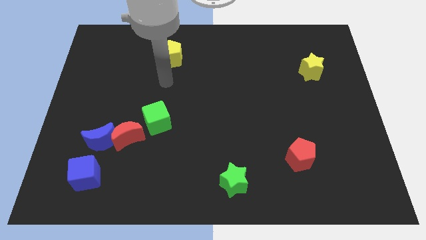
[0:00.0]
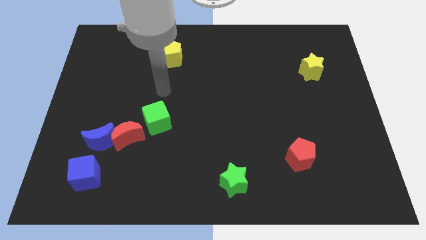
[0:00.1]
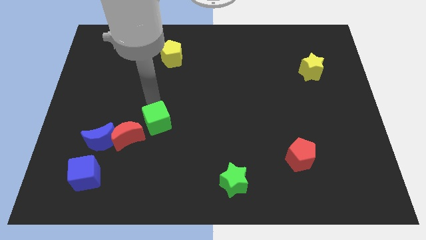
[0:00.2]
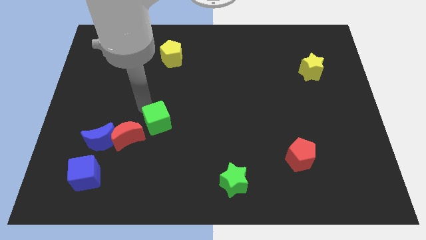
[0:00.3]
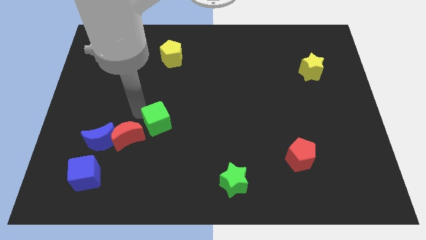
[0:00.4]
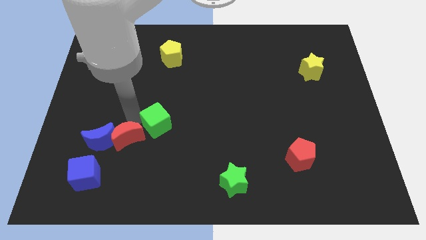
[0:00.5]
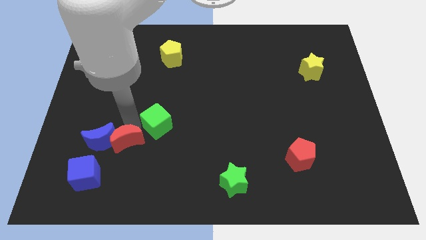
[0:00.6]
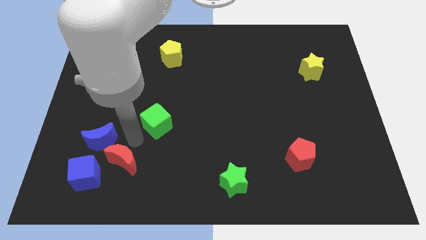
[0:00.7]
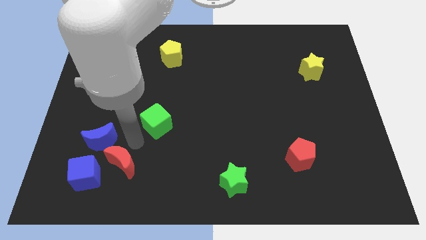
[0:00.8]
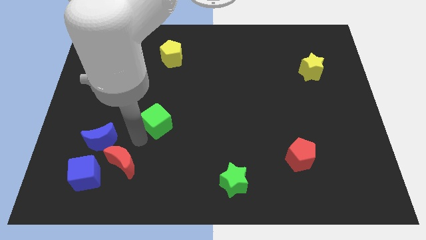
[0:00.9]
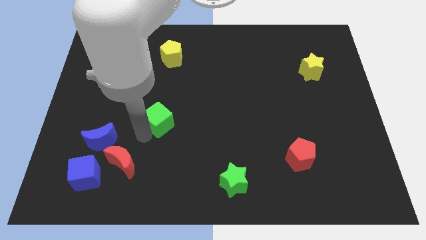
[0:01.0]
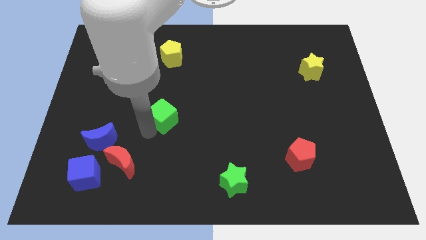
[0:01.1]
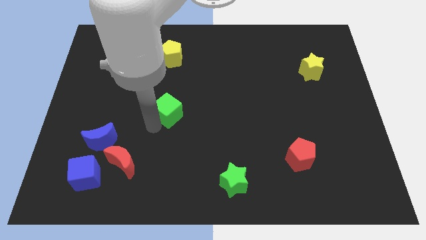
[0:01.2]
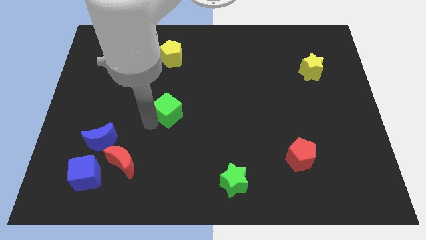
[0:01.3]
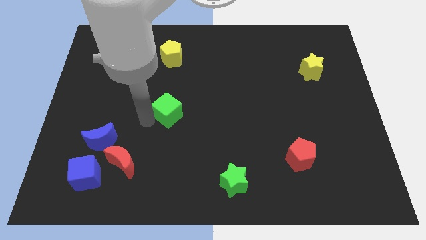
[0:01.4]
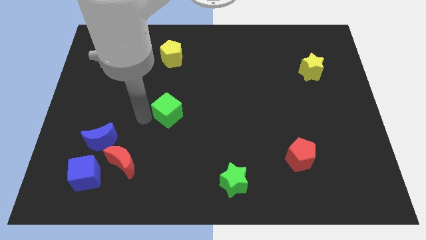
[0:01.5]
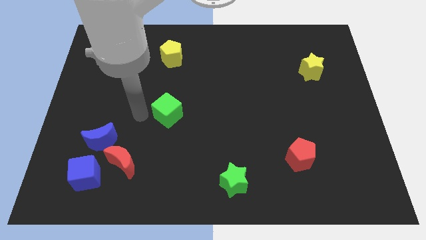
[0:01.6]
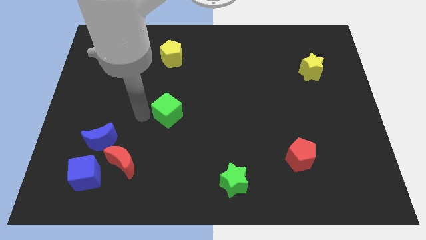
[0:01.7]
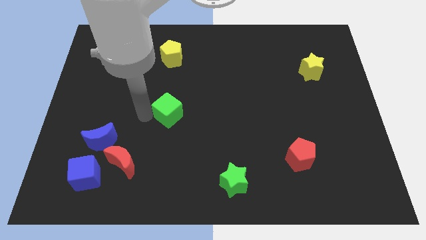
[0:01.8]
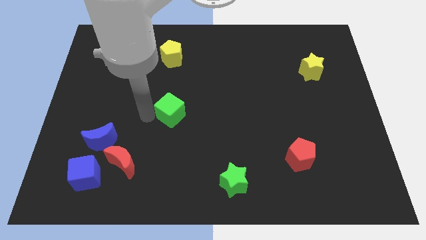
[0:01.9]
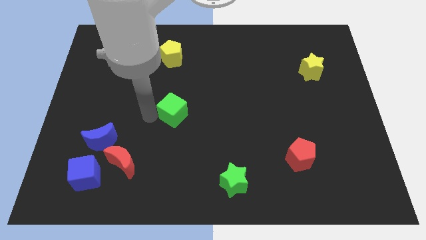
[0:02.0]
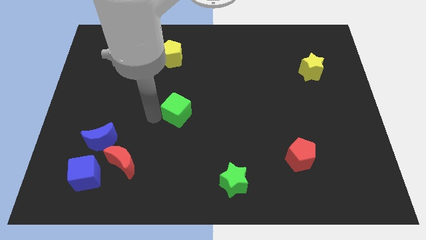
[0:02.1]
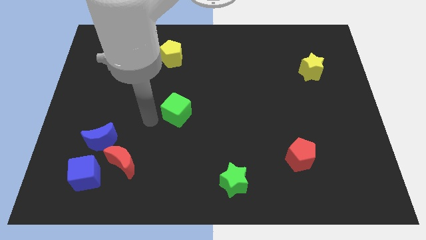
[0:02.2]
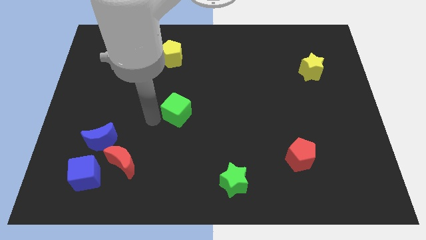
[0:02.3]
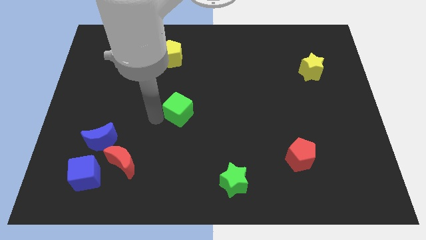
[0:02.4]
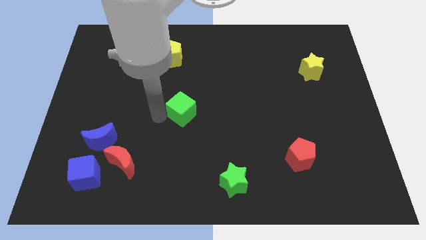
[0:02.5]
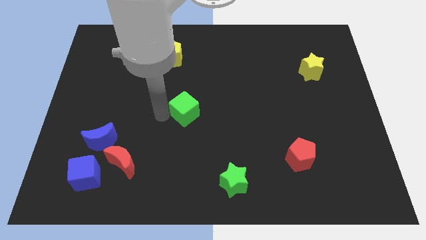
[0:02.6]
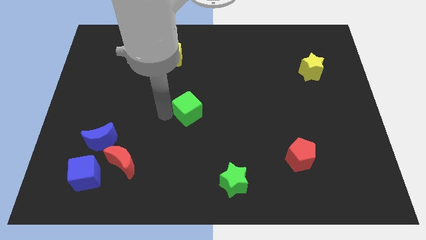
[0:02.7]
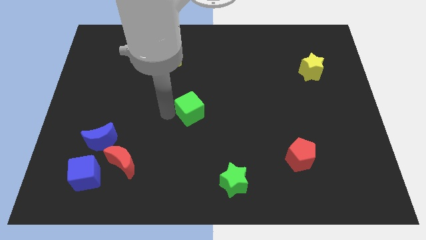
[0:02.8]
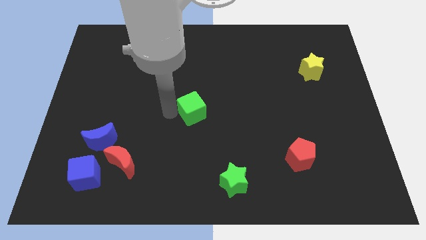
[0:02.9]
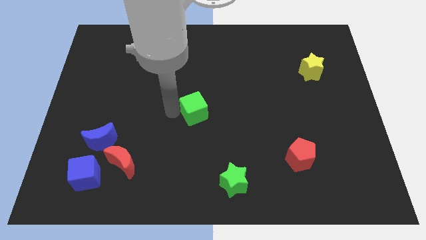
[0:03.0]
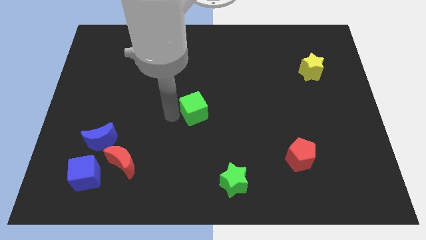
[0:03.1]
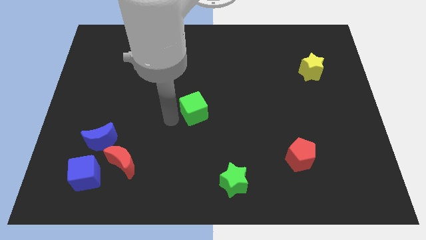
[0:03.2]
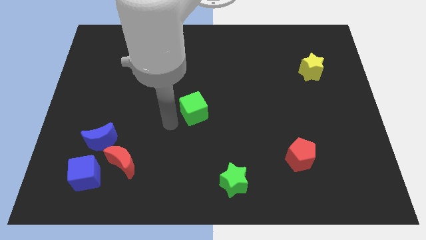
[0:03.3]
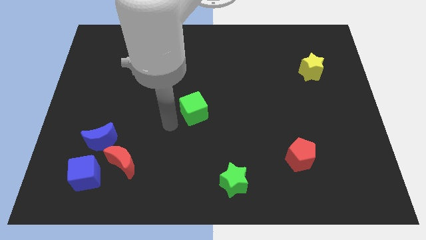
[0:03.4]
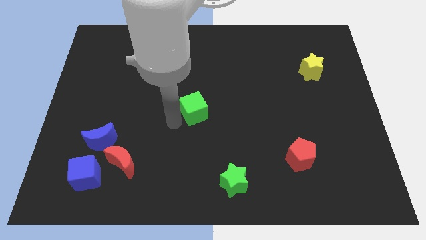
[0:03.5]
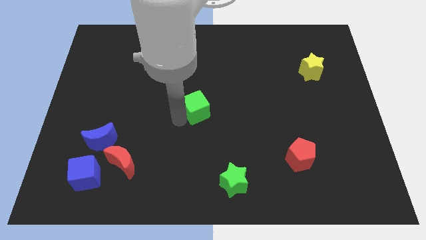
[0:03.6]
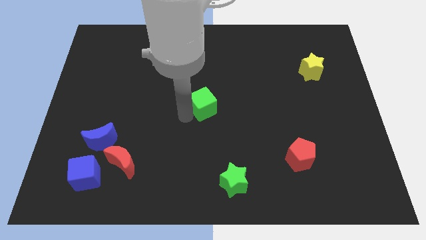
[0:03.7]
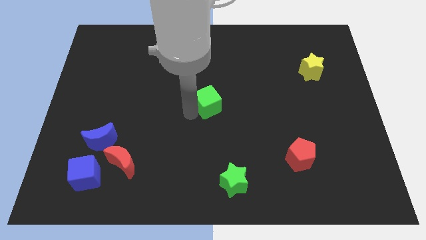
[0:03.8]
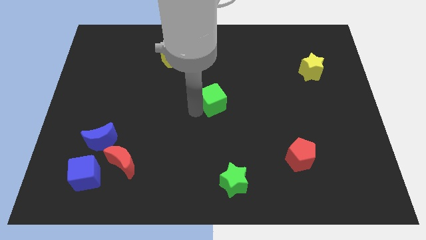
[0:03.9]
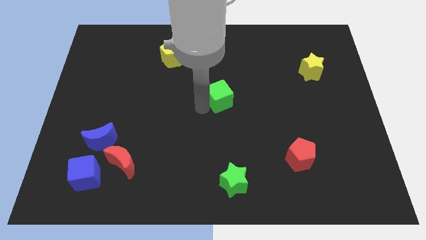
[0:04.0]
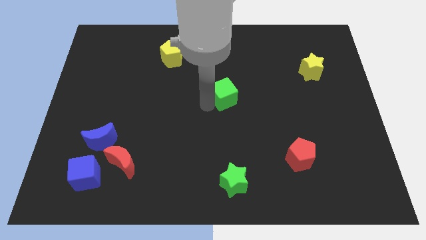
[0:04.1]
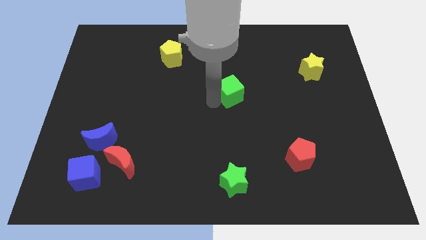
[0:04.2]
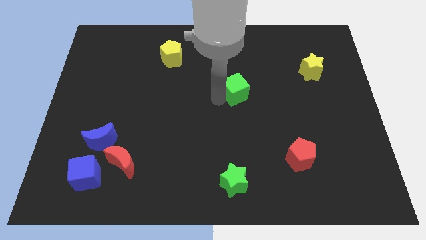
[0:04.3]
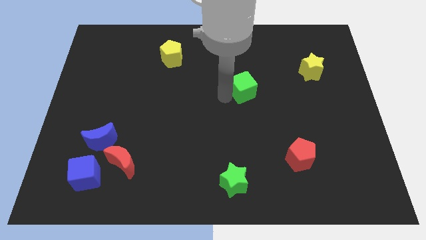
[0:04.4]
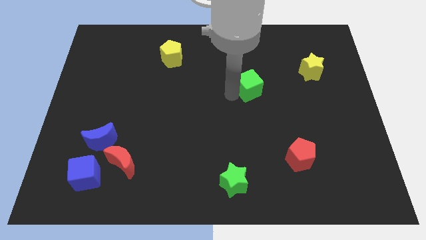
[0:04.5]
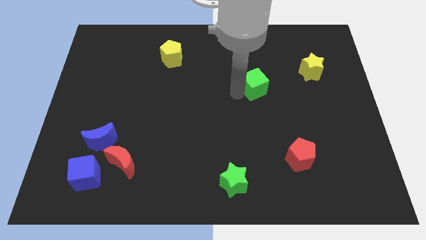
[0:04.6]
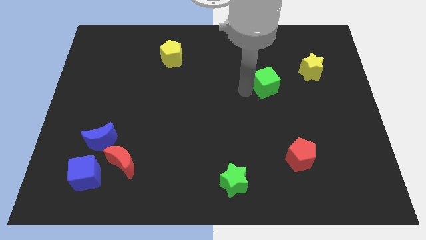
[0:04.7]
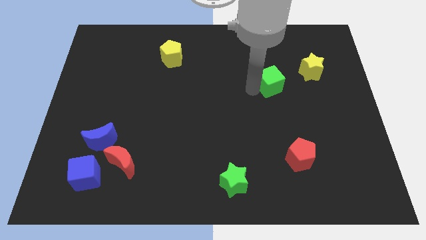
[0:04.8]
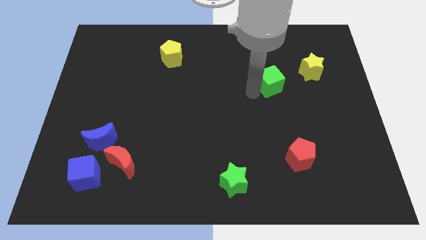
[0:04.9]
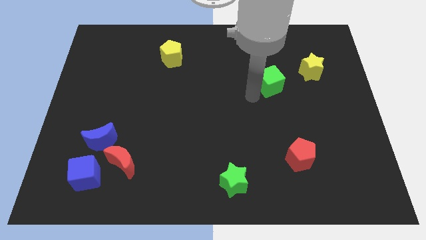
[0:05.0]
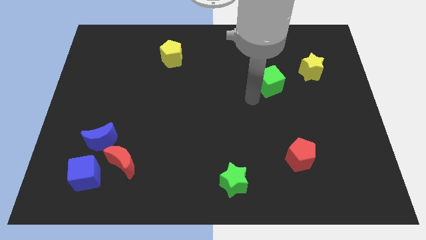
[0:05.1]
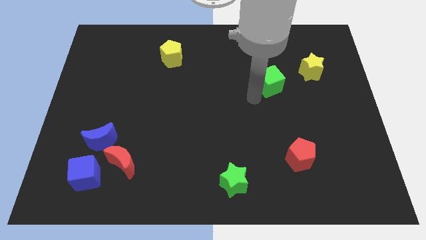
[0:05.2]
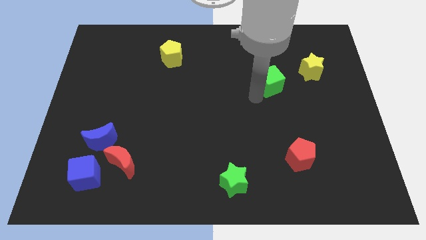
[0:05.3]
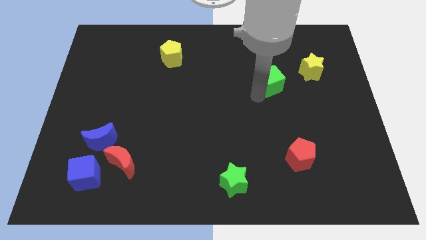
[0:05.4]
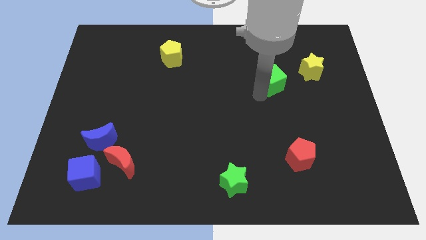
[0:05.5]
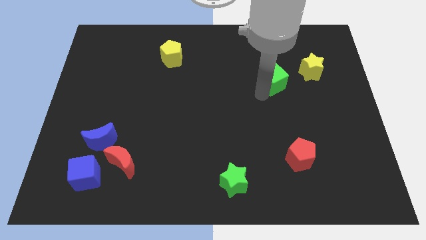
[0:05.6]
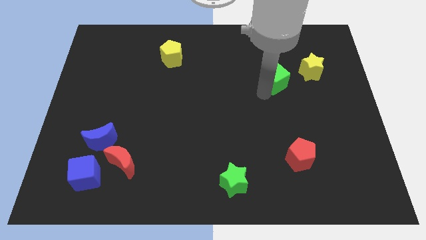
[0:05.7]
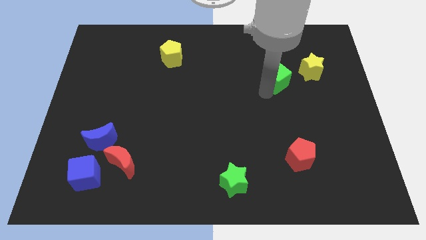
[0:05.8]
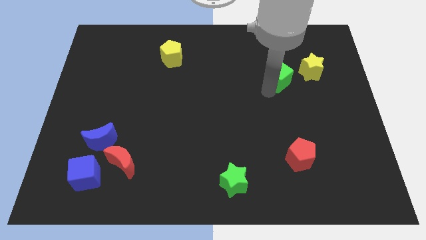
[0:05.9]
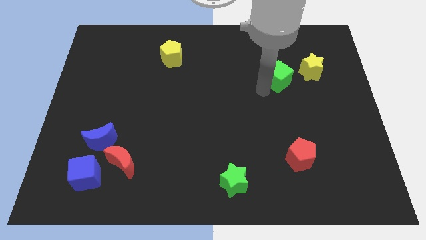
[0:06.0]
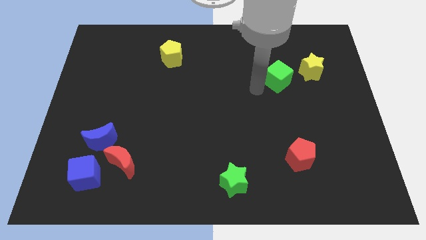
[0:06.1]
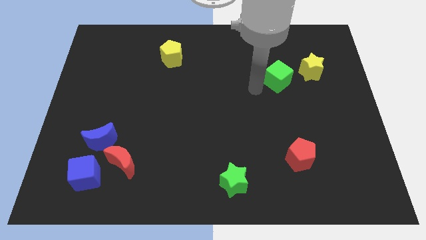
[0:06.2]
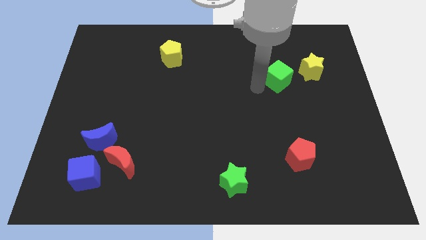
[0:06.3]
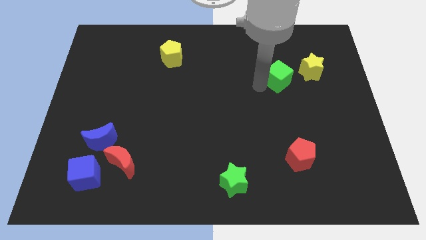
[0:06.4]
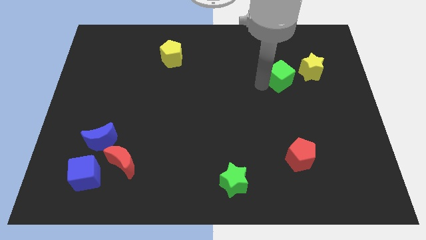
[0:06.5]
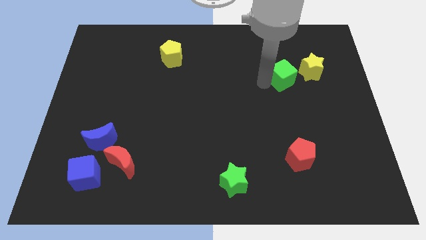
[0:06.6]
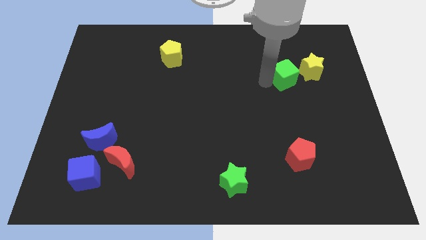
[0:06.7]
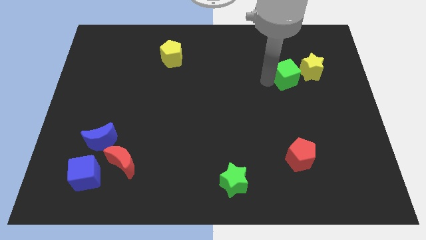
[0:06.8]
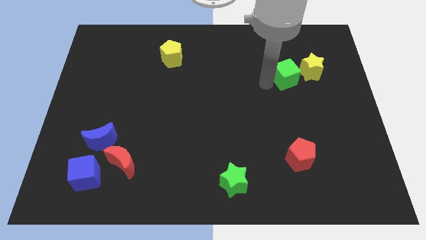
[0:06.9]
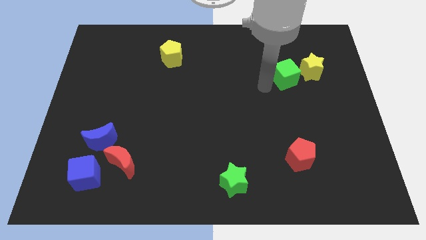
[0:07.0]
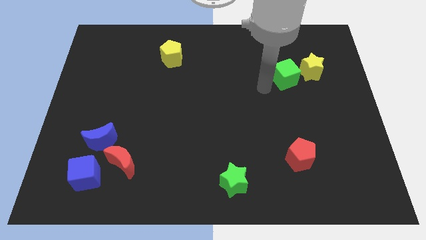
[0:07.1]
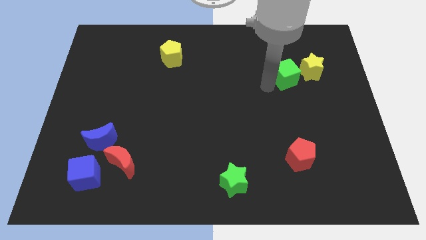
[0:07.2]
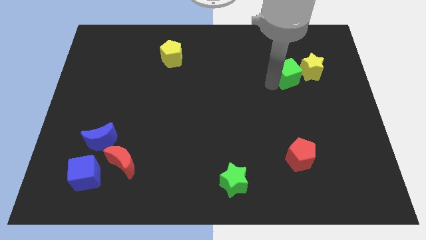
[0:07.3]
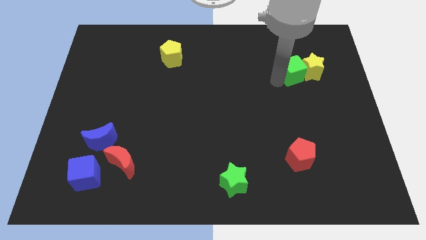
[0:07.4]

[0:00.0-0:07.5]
put the green cube to the yellow star
